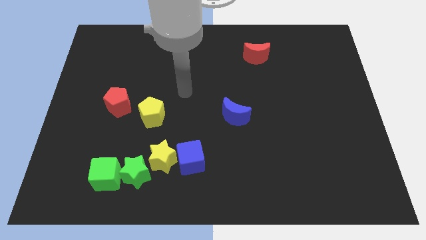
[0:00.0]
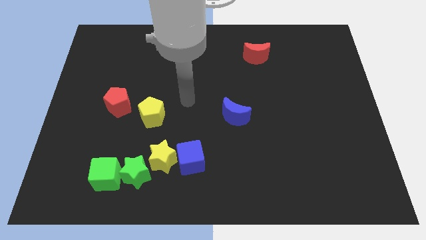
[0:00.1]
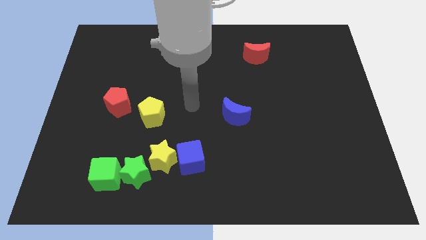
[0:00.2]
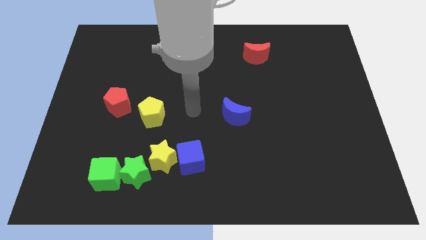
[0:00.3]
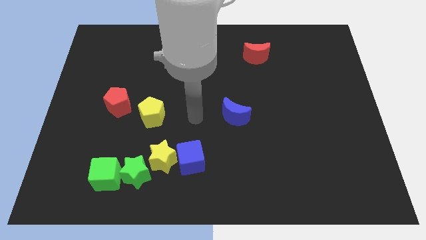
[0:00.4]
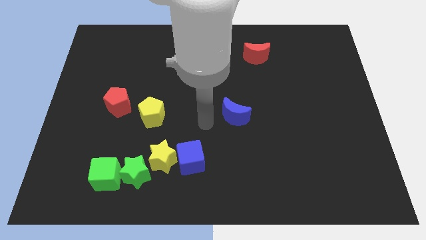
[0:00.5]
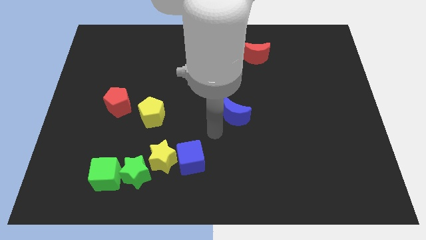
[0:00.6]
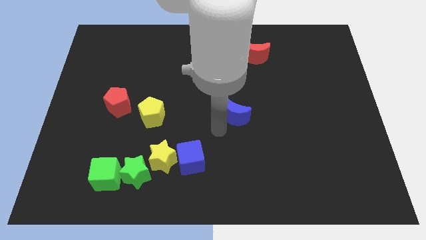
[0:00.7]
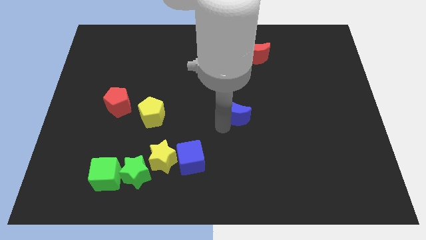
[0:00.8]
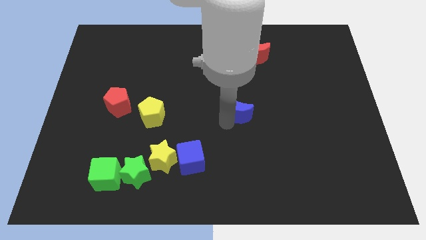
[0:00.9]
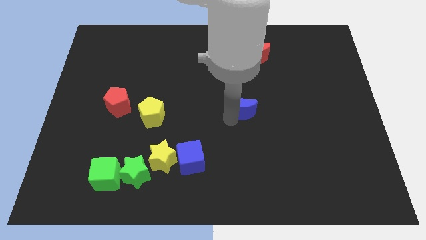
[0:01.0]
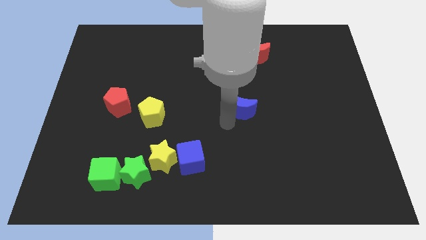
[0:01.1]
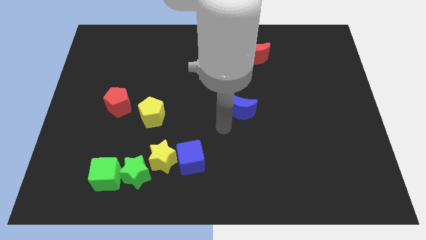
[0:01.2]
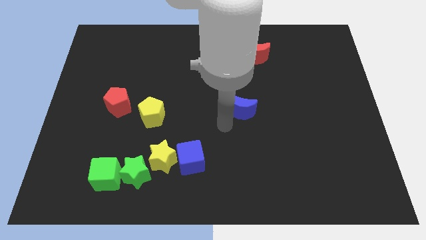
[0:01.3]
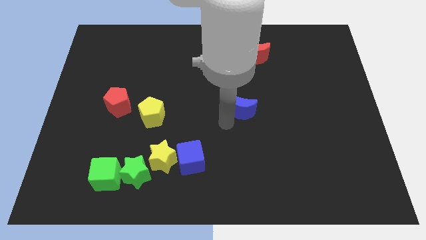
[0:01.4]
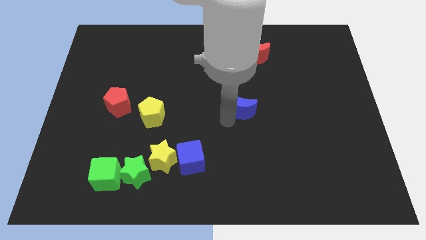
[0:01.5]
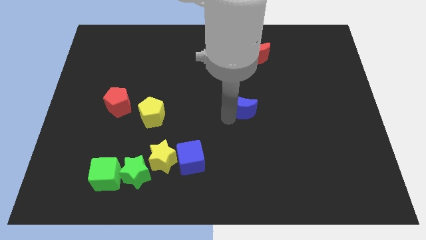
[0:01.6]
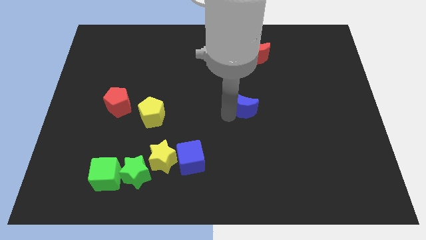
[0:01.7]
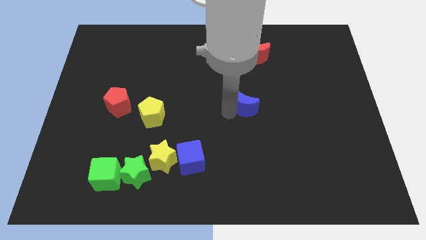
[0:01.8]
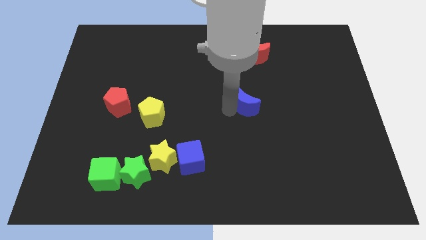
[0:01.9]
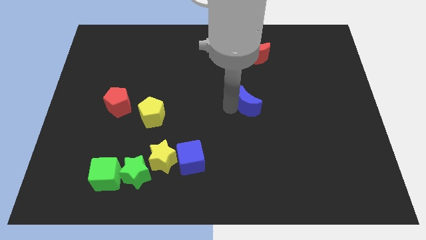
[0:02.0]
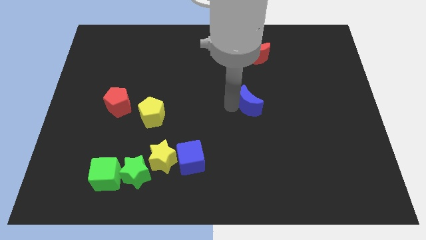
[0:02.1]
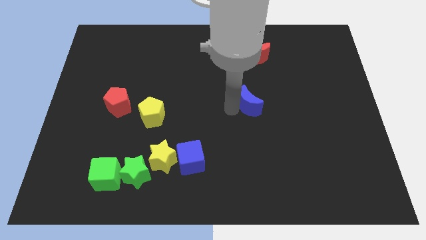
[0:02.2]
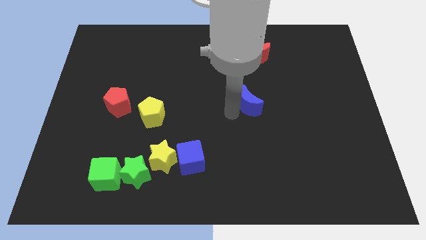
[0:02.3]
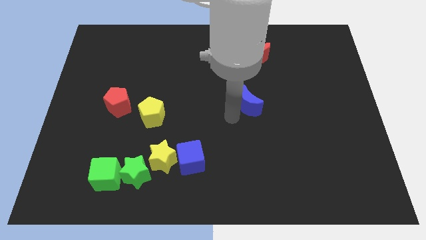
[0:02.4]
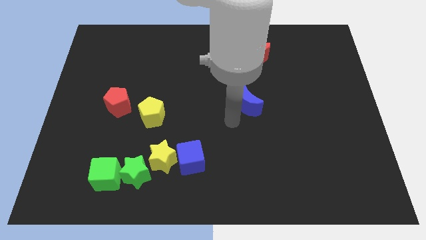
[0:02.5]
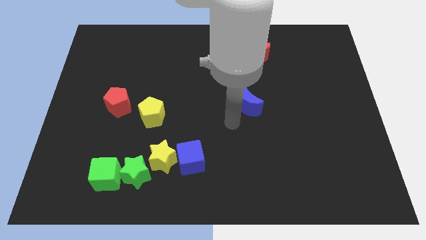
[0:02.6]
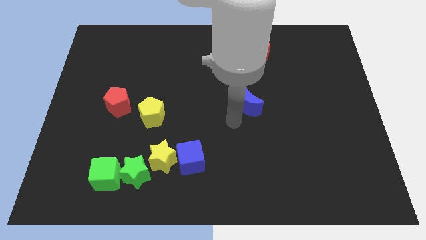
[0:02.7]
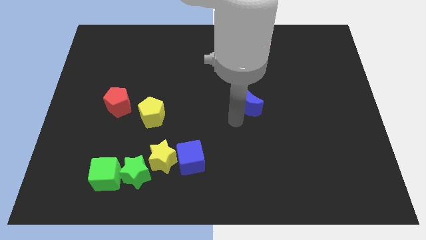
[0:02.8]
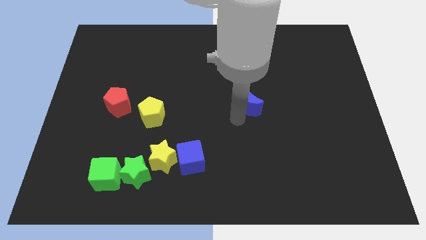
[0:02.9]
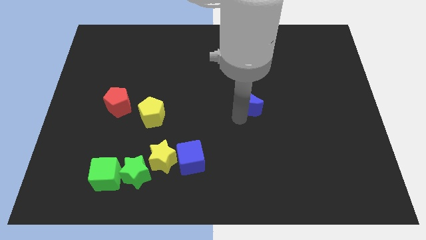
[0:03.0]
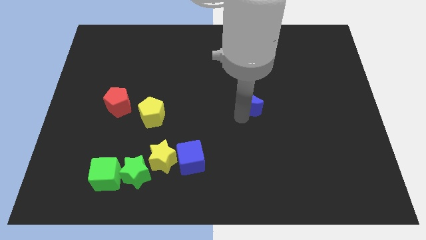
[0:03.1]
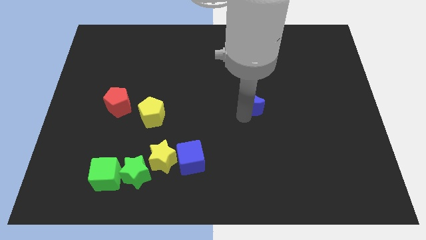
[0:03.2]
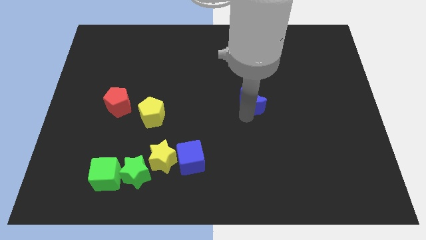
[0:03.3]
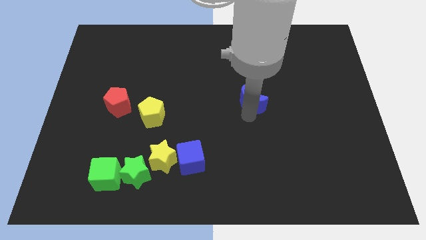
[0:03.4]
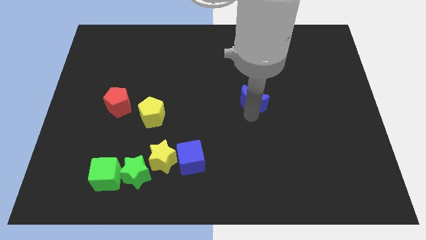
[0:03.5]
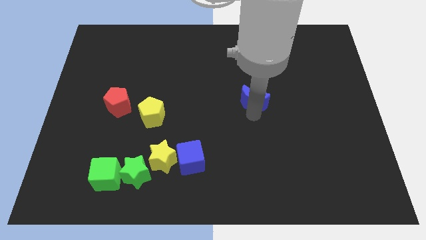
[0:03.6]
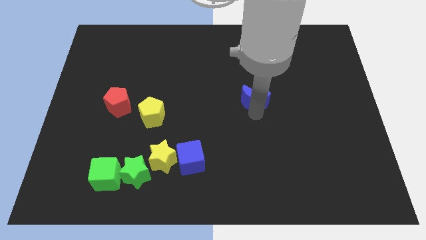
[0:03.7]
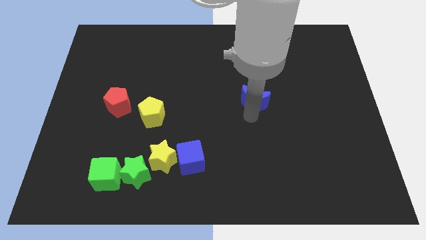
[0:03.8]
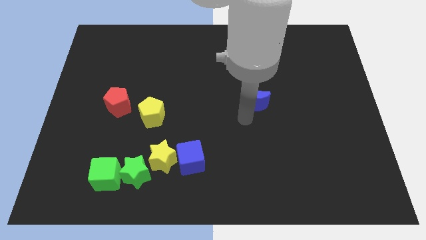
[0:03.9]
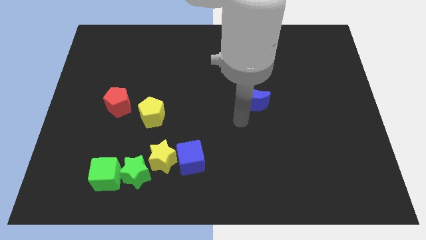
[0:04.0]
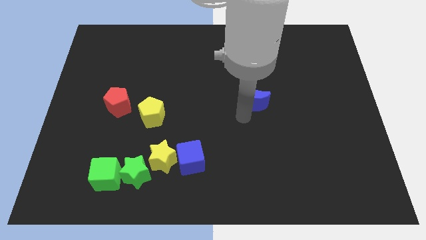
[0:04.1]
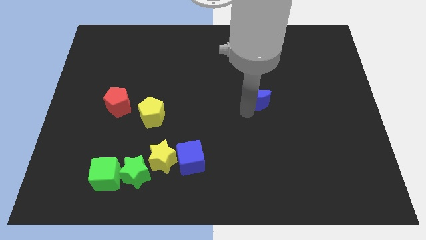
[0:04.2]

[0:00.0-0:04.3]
slightly move the blue moon upwards and to the right

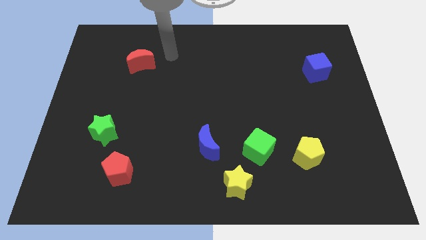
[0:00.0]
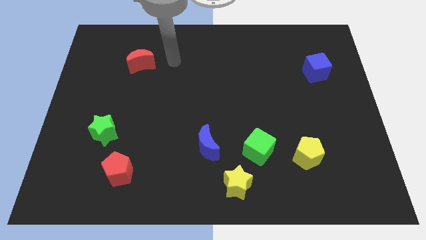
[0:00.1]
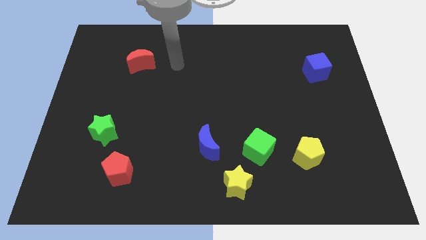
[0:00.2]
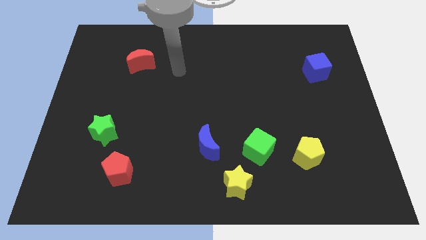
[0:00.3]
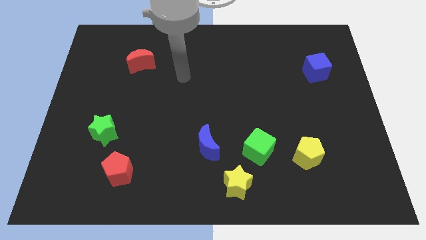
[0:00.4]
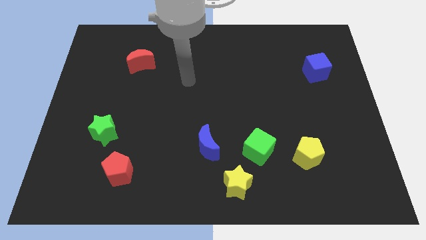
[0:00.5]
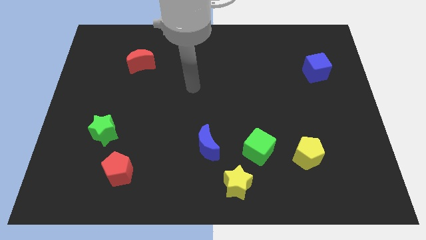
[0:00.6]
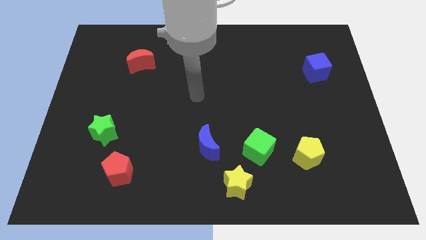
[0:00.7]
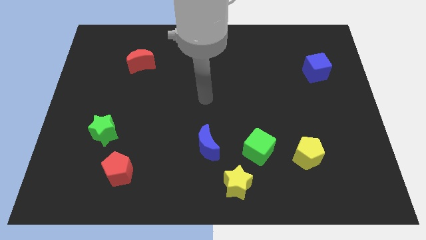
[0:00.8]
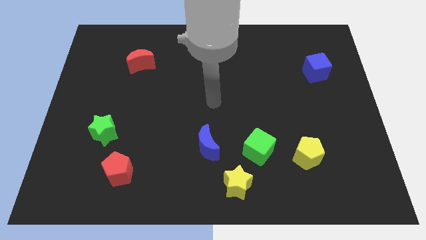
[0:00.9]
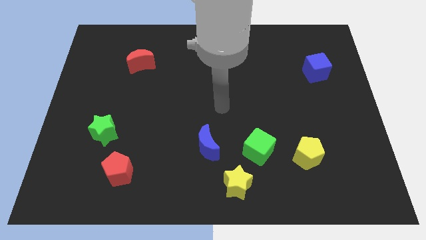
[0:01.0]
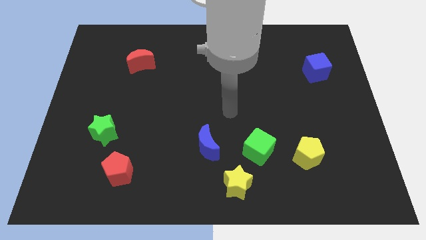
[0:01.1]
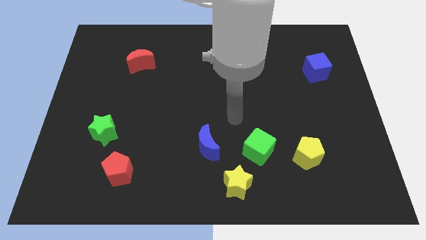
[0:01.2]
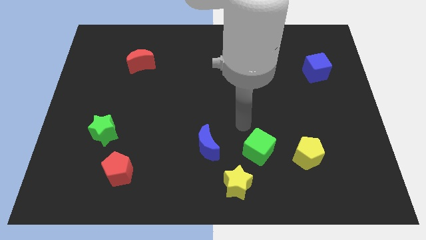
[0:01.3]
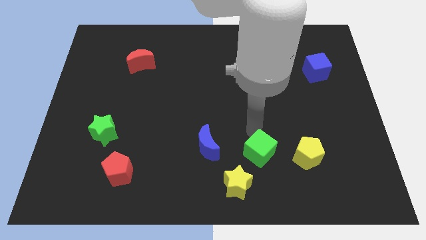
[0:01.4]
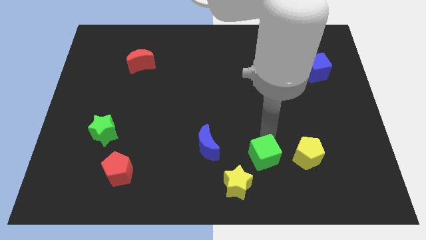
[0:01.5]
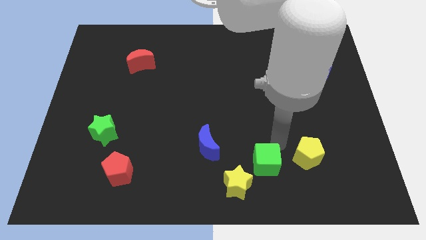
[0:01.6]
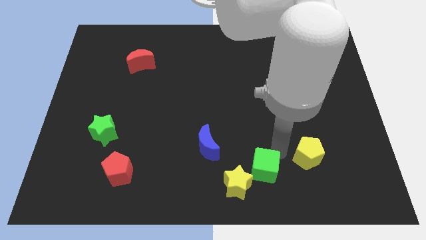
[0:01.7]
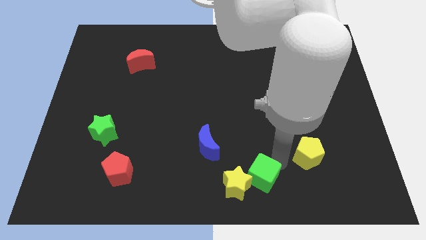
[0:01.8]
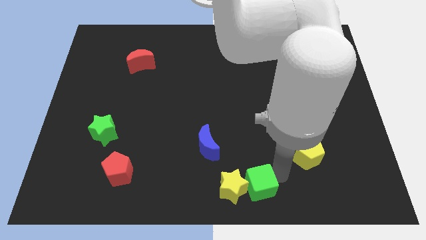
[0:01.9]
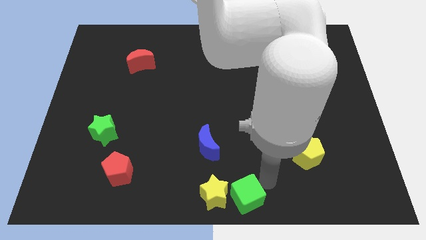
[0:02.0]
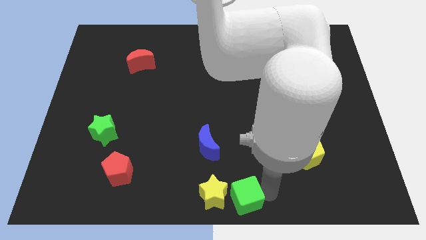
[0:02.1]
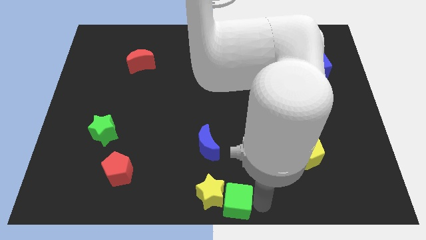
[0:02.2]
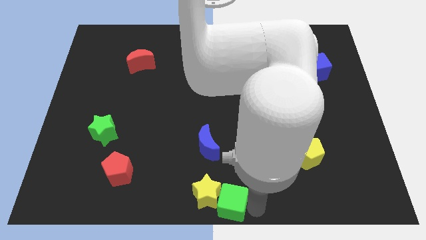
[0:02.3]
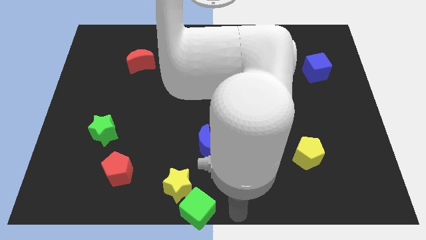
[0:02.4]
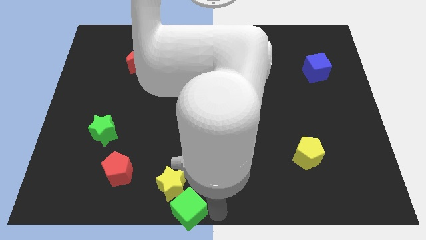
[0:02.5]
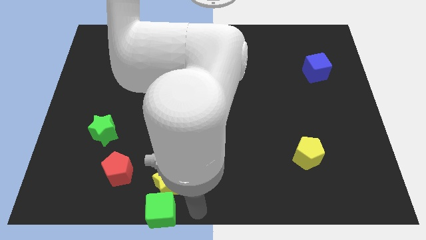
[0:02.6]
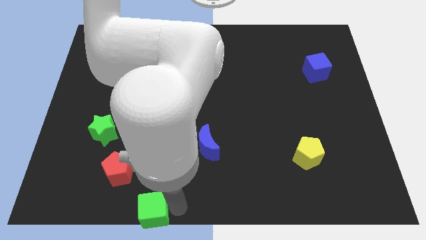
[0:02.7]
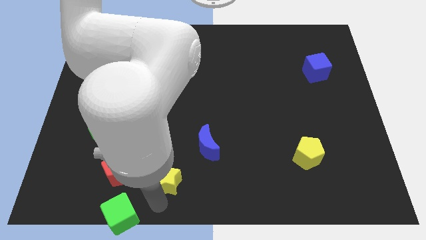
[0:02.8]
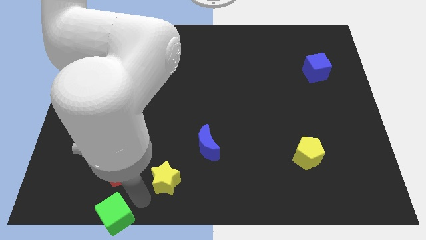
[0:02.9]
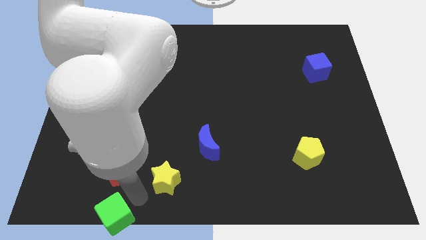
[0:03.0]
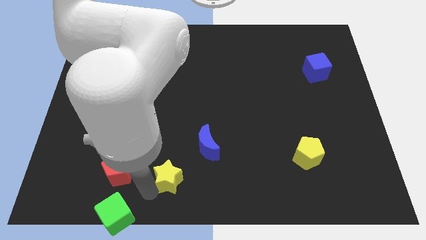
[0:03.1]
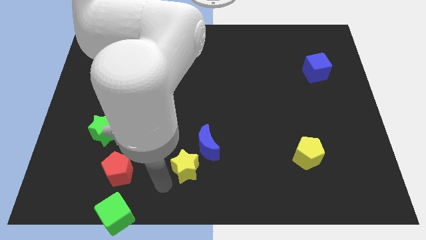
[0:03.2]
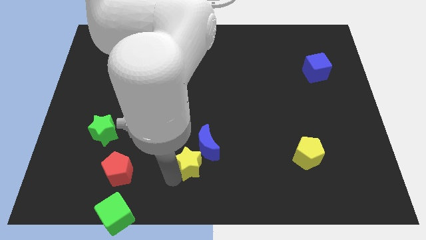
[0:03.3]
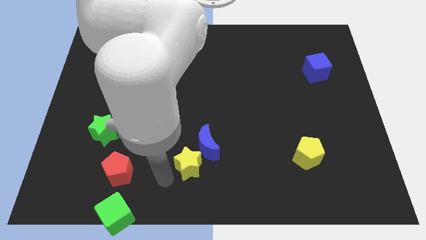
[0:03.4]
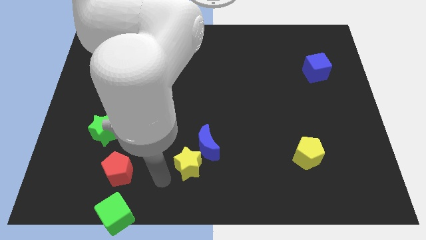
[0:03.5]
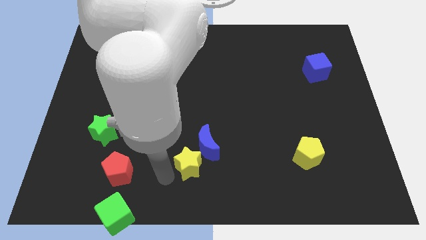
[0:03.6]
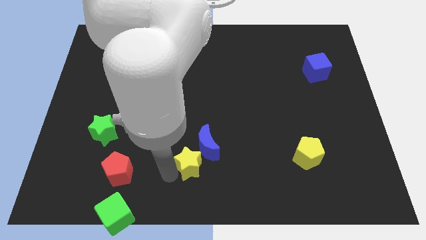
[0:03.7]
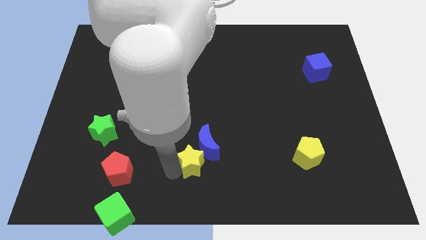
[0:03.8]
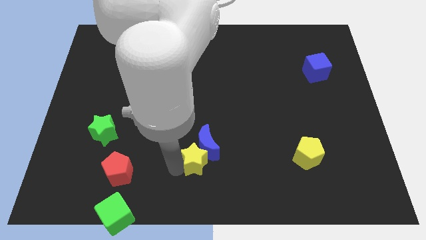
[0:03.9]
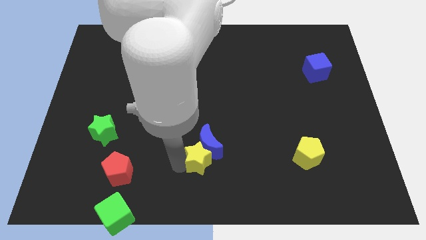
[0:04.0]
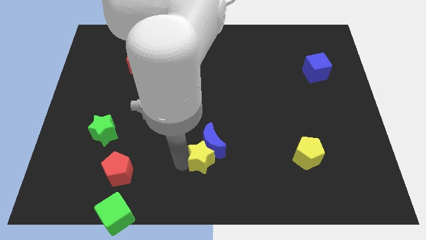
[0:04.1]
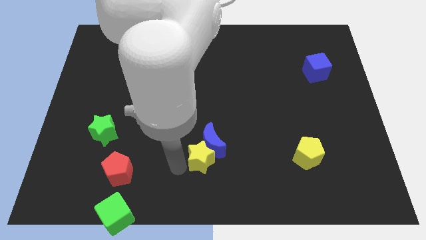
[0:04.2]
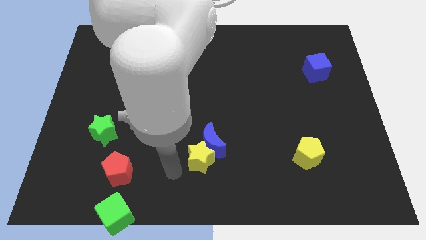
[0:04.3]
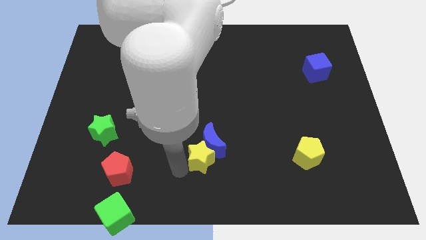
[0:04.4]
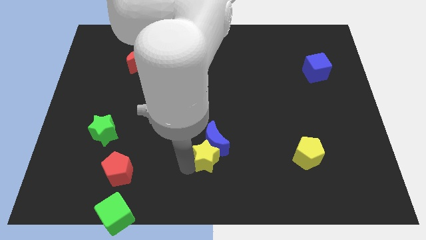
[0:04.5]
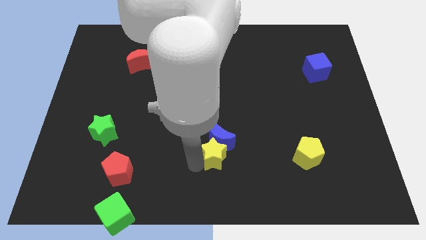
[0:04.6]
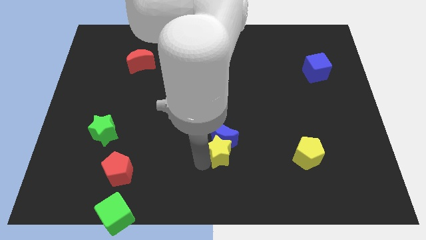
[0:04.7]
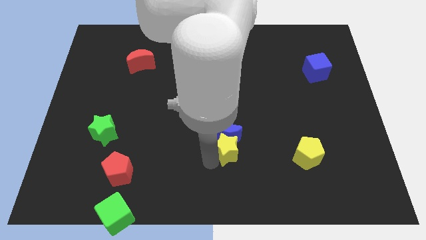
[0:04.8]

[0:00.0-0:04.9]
push the yellow star slightly up
